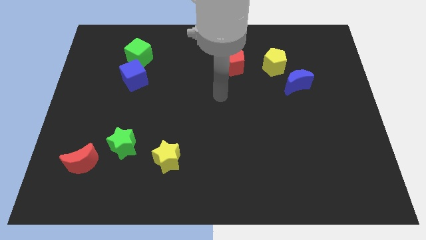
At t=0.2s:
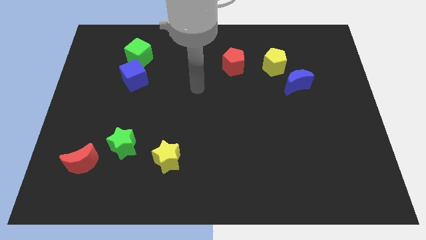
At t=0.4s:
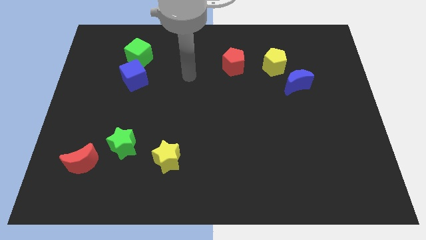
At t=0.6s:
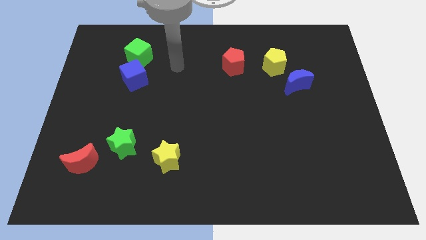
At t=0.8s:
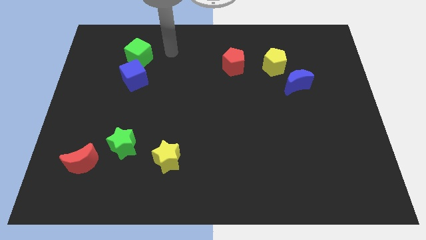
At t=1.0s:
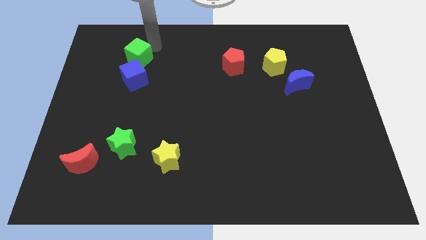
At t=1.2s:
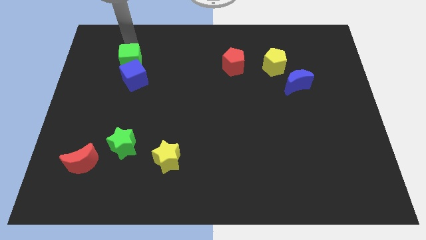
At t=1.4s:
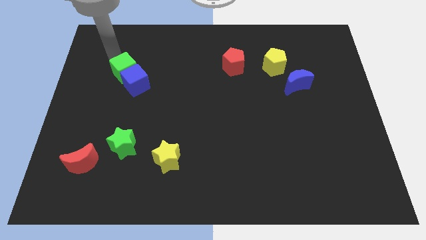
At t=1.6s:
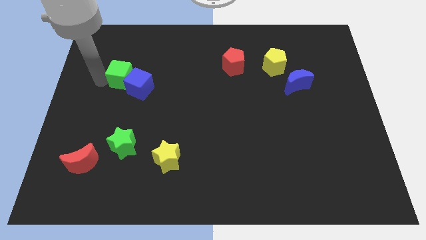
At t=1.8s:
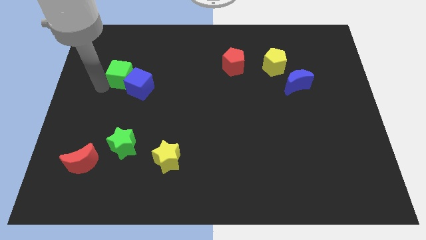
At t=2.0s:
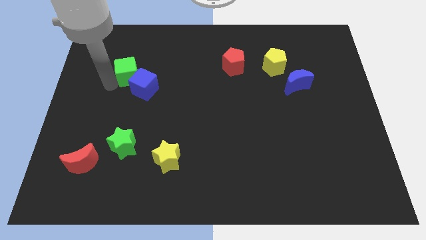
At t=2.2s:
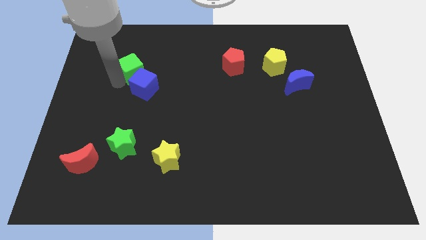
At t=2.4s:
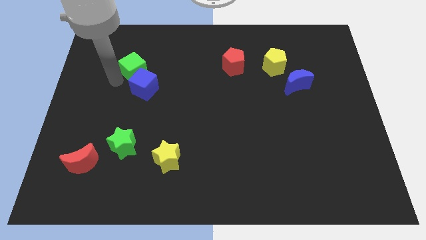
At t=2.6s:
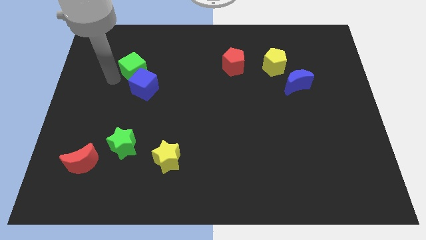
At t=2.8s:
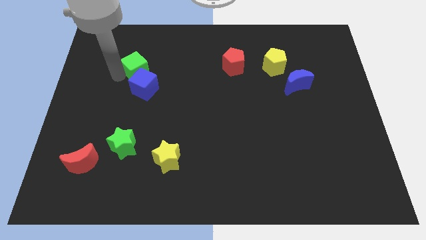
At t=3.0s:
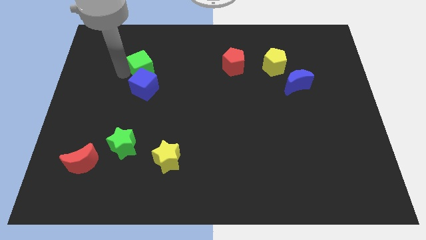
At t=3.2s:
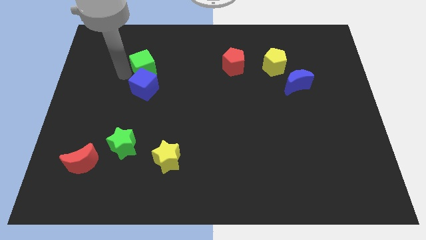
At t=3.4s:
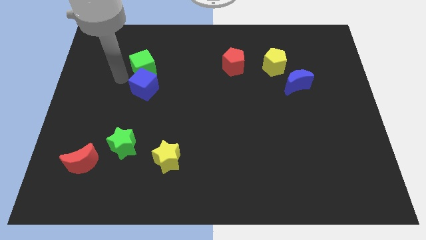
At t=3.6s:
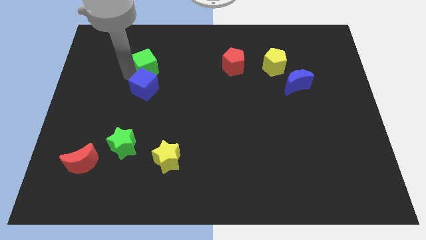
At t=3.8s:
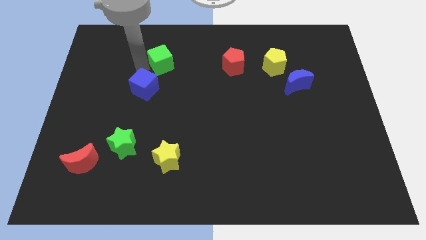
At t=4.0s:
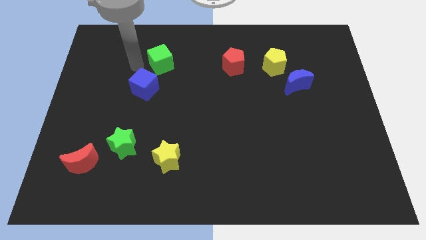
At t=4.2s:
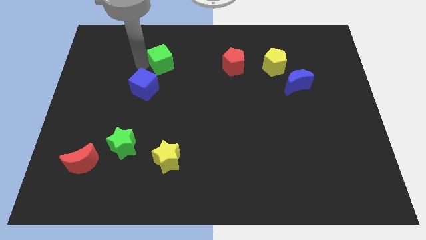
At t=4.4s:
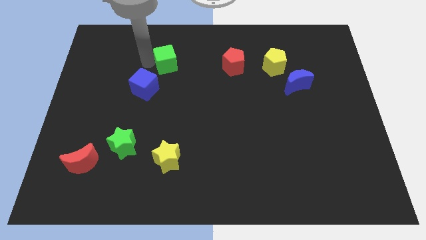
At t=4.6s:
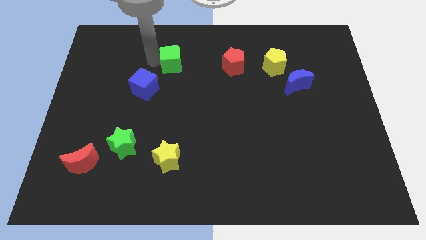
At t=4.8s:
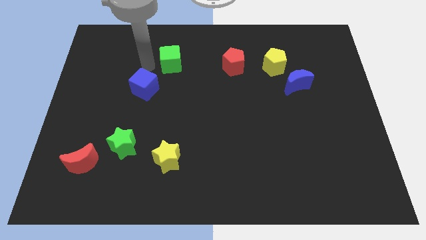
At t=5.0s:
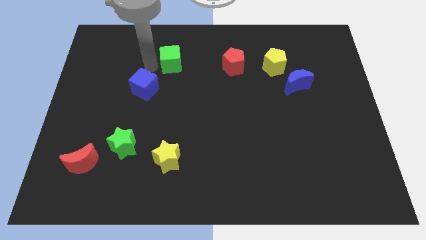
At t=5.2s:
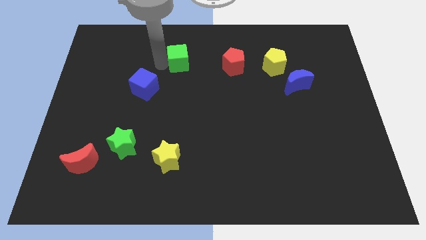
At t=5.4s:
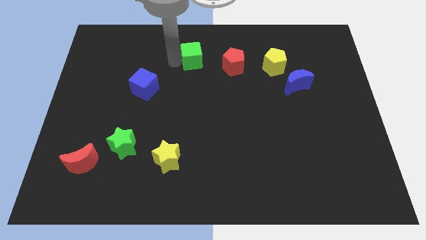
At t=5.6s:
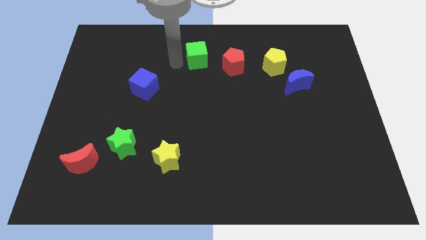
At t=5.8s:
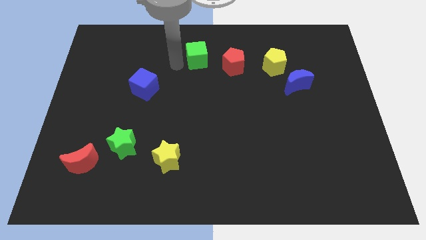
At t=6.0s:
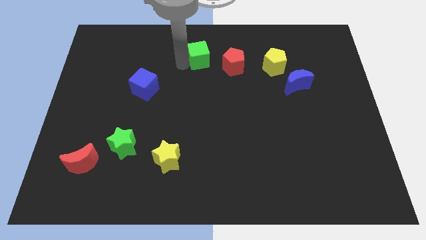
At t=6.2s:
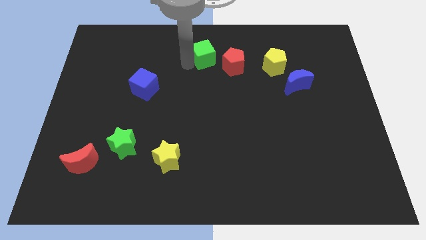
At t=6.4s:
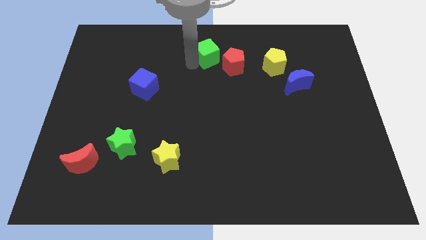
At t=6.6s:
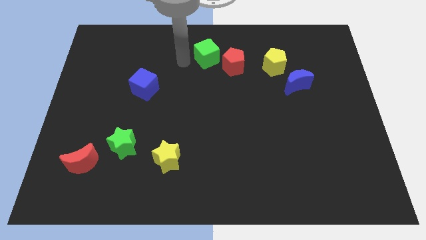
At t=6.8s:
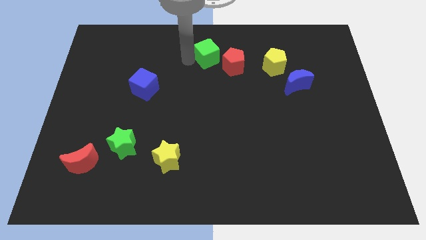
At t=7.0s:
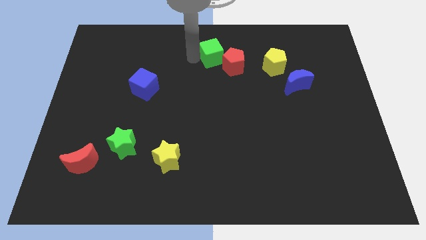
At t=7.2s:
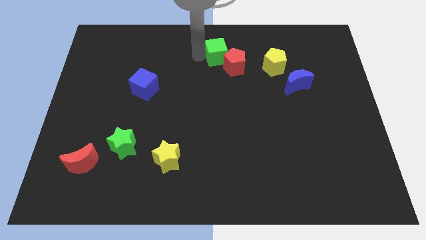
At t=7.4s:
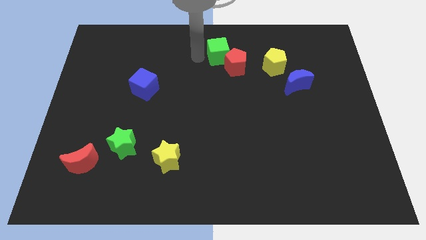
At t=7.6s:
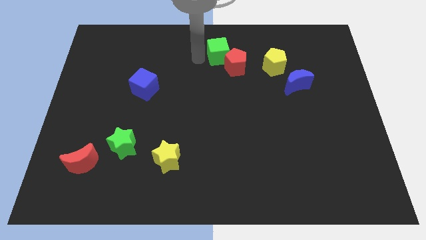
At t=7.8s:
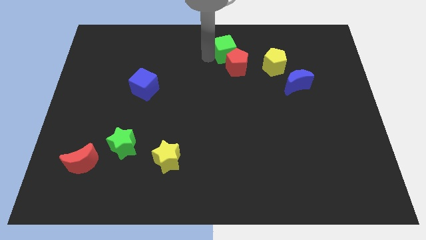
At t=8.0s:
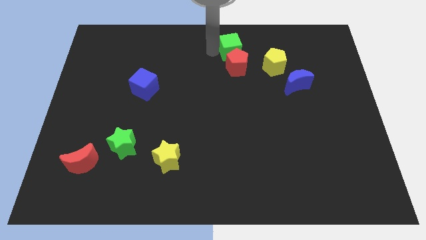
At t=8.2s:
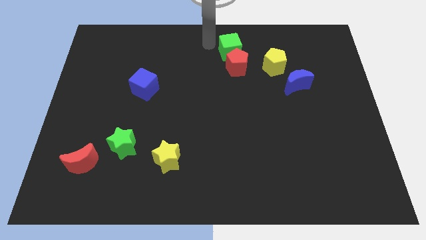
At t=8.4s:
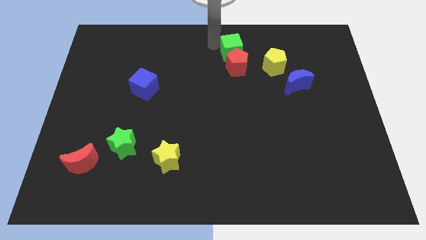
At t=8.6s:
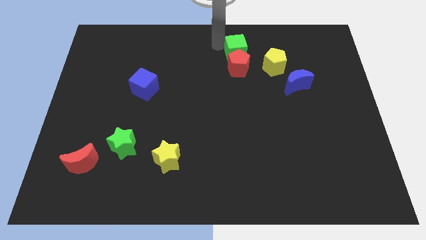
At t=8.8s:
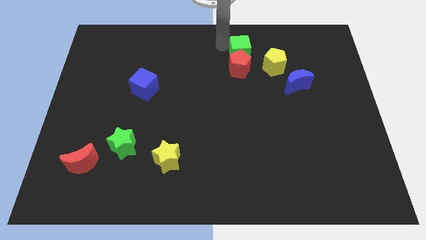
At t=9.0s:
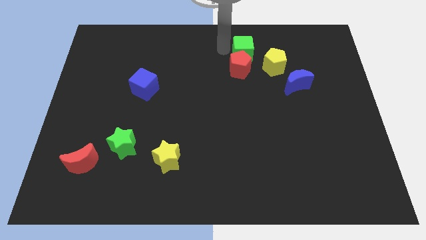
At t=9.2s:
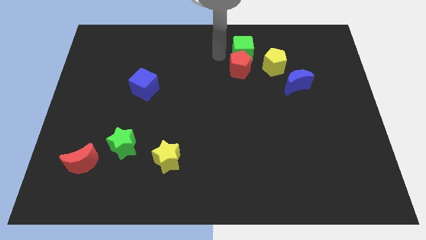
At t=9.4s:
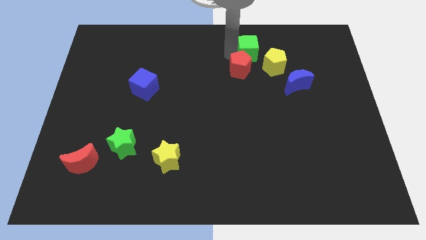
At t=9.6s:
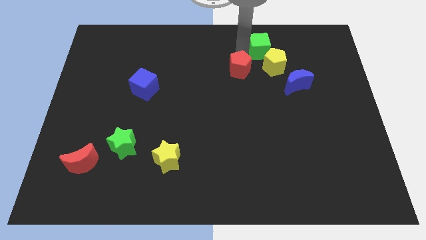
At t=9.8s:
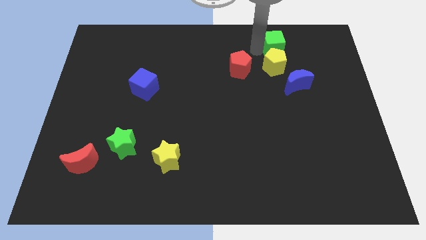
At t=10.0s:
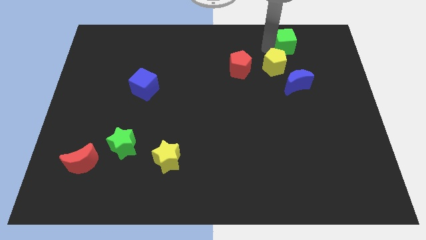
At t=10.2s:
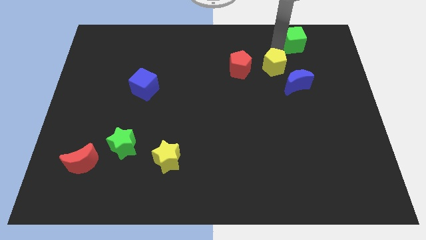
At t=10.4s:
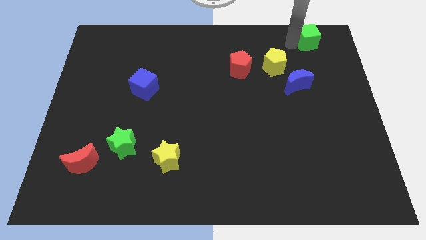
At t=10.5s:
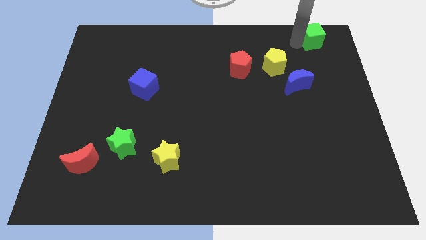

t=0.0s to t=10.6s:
move the green cube to the top right corner

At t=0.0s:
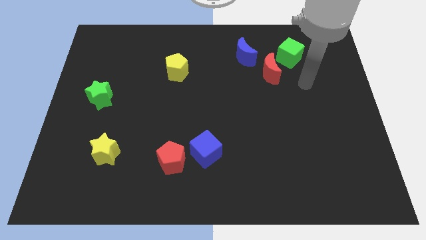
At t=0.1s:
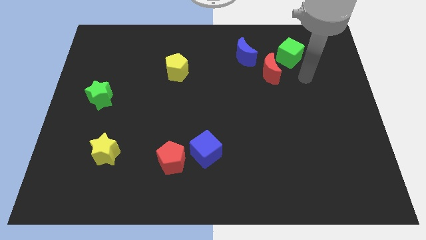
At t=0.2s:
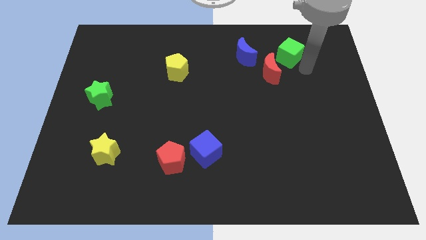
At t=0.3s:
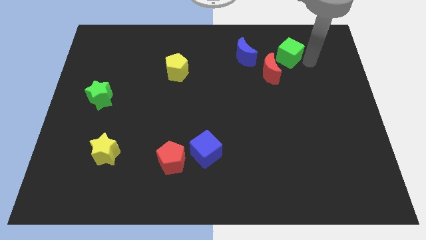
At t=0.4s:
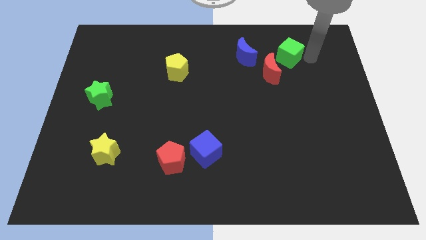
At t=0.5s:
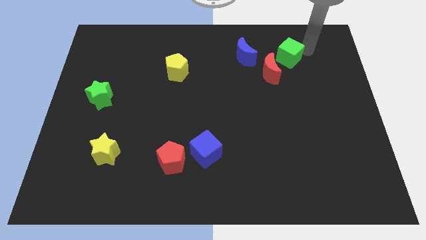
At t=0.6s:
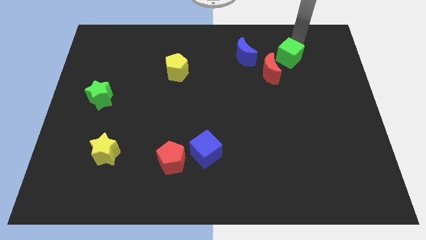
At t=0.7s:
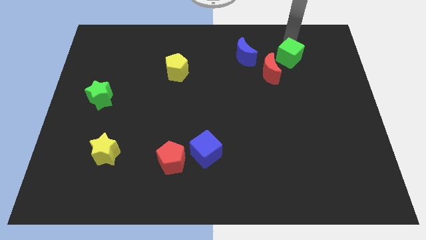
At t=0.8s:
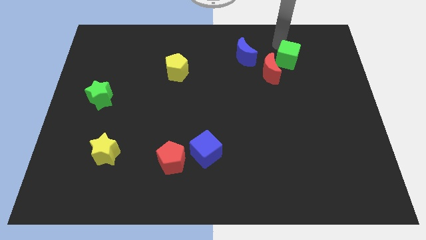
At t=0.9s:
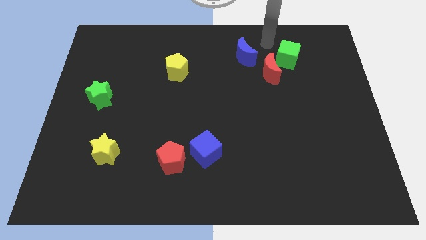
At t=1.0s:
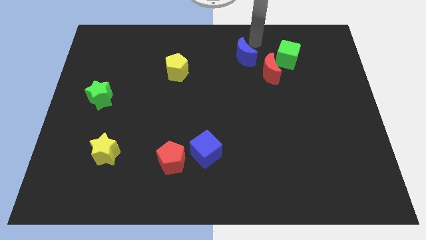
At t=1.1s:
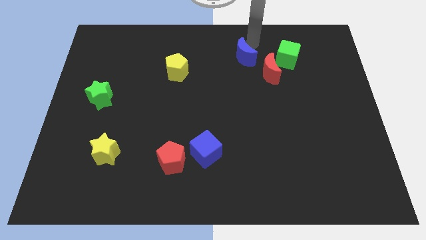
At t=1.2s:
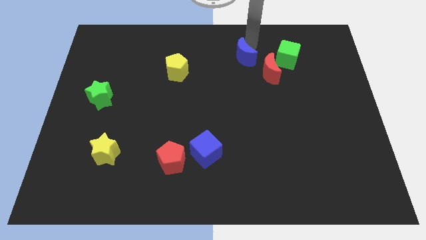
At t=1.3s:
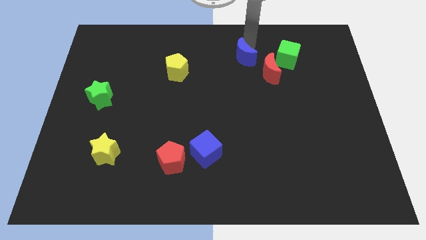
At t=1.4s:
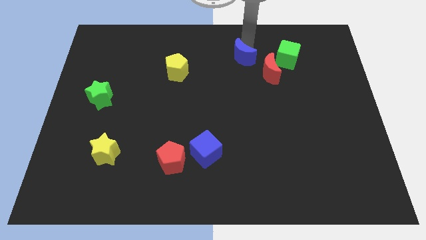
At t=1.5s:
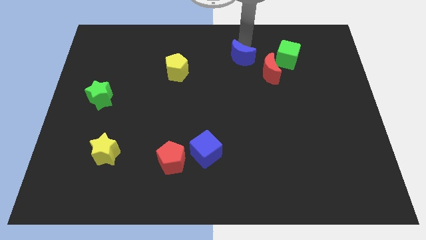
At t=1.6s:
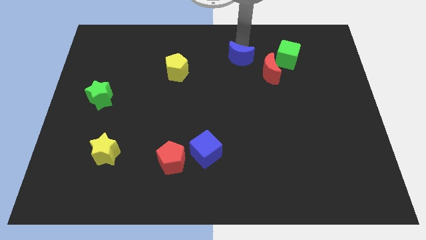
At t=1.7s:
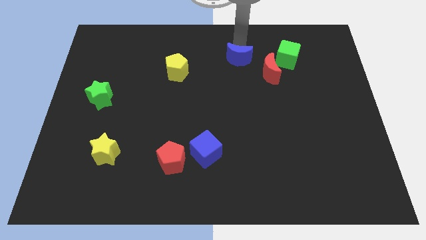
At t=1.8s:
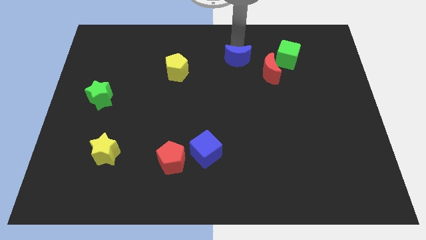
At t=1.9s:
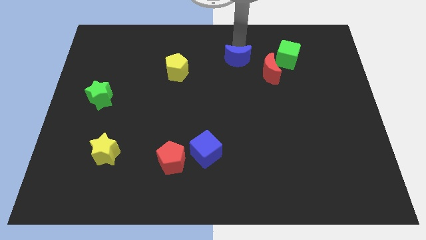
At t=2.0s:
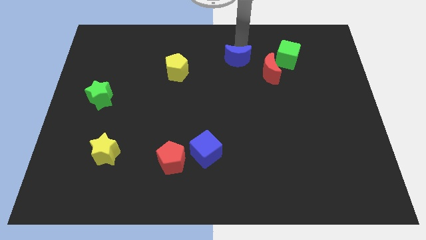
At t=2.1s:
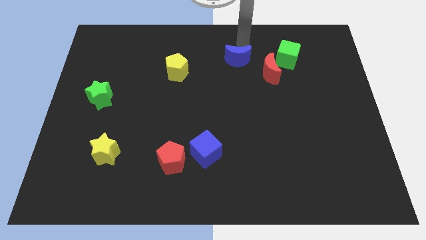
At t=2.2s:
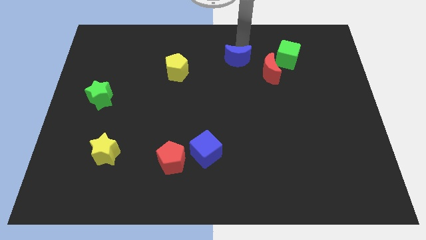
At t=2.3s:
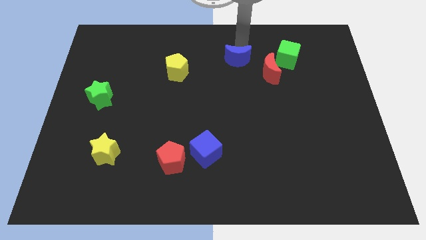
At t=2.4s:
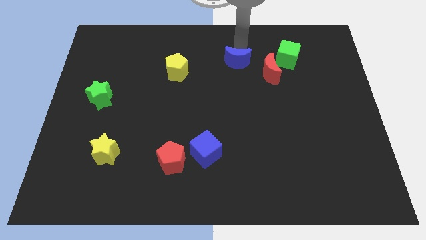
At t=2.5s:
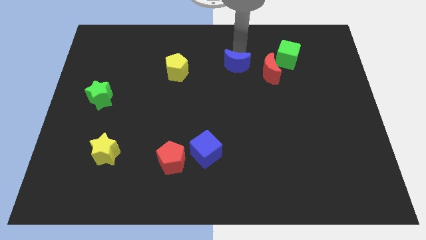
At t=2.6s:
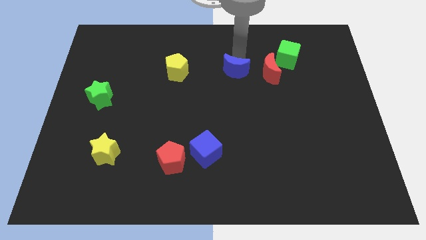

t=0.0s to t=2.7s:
slide the blue moon to the middle
